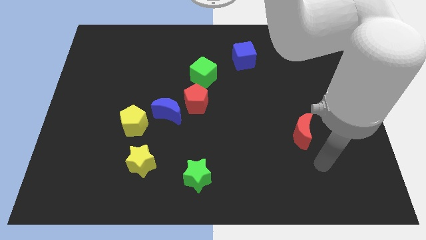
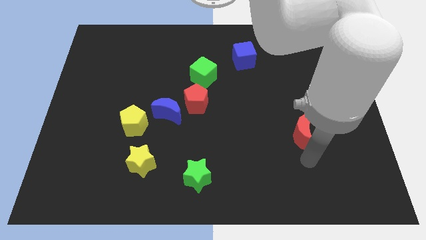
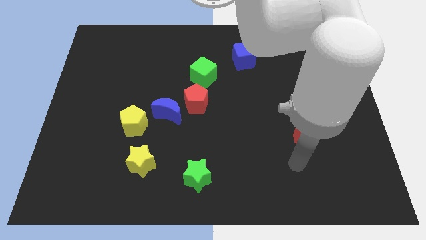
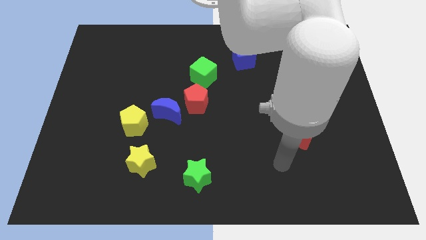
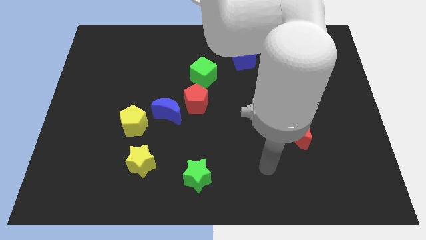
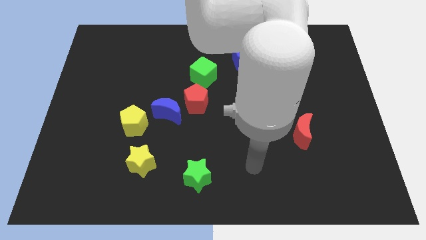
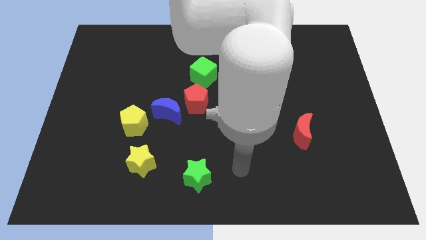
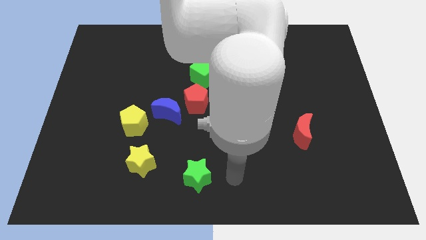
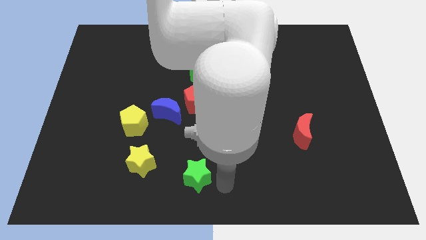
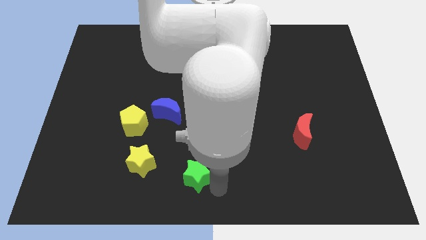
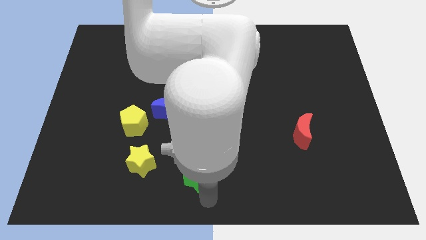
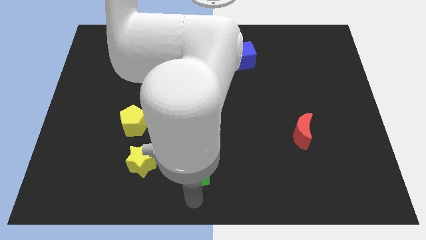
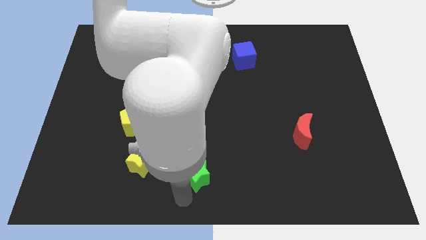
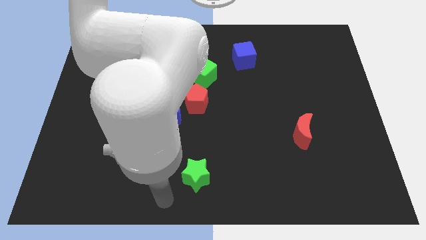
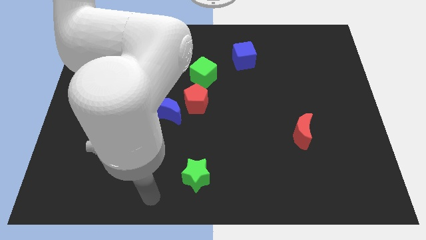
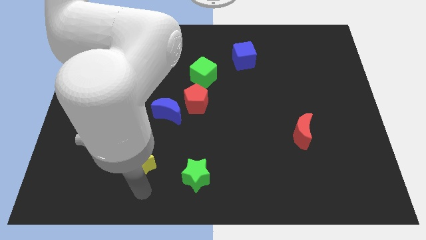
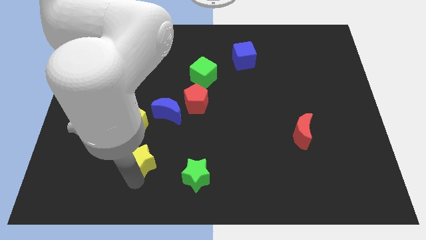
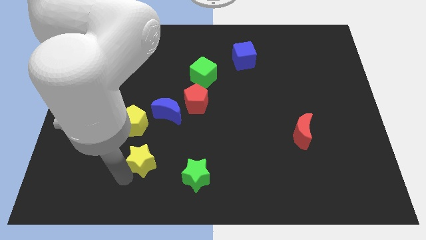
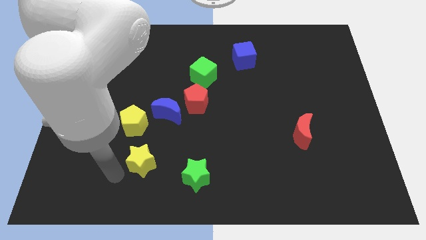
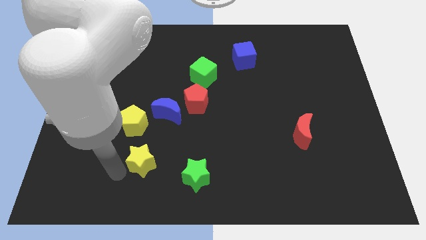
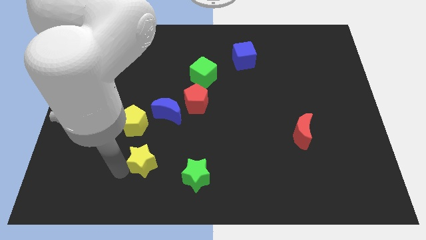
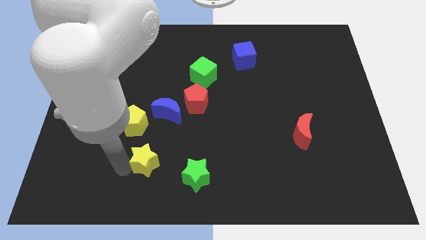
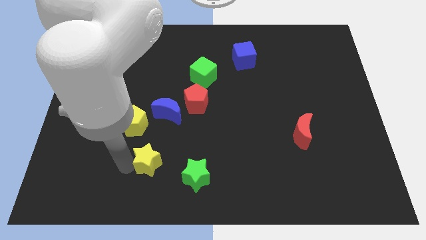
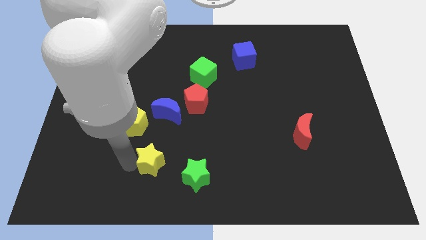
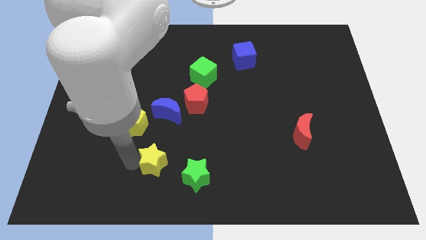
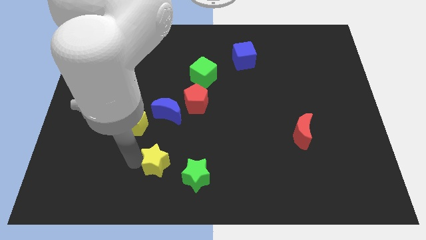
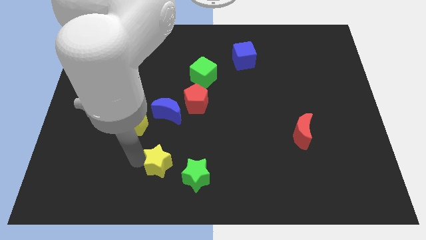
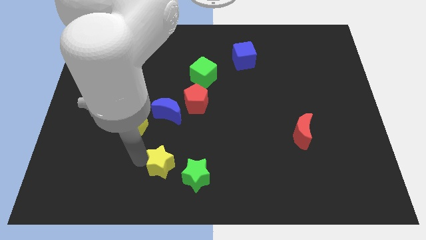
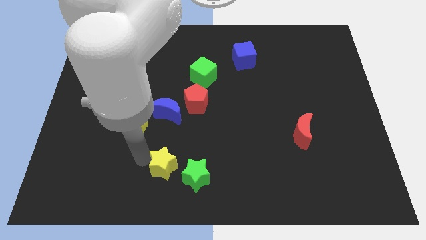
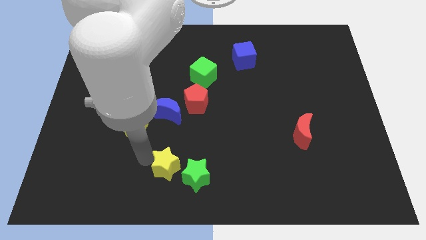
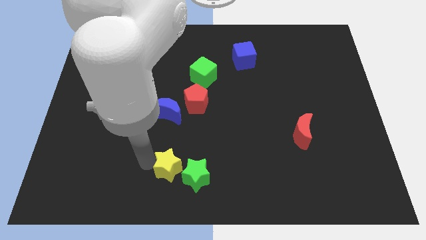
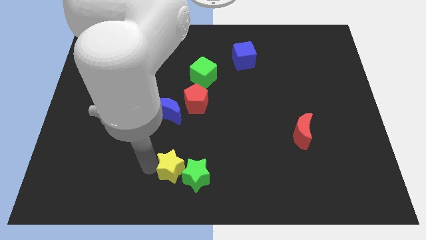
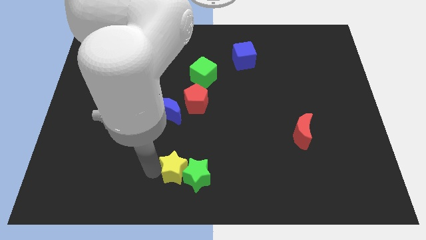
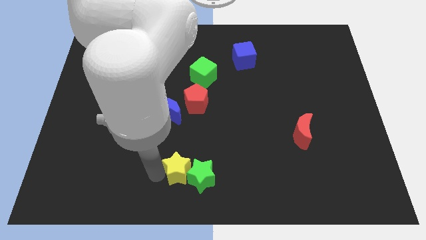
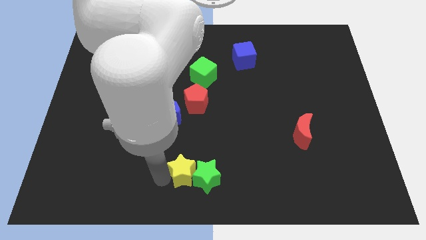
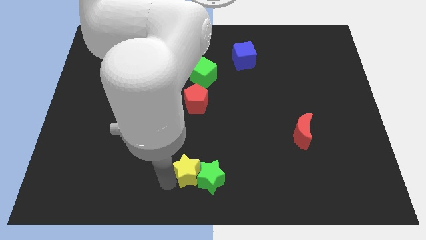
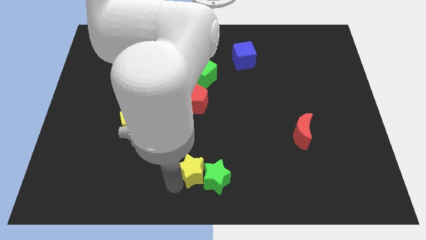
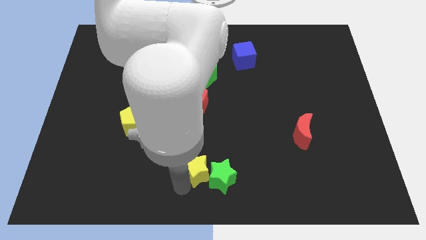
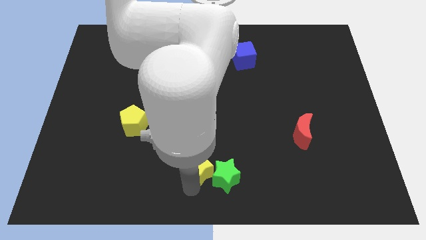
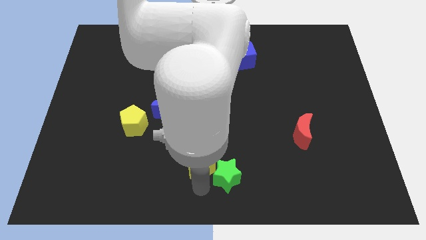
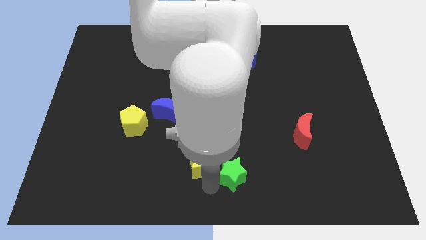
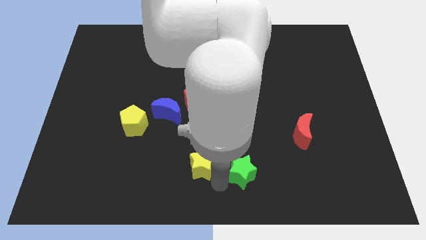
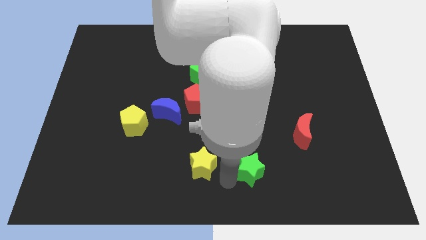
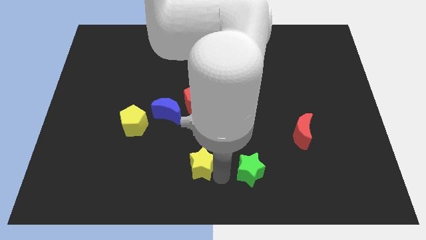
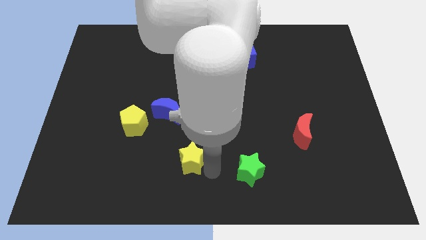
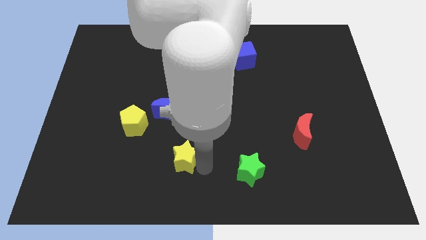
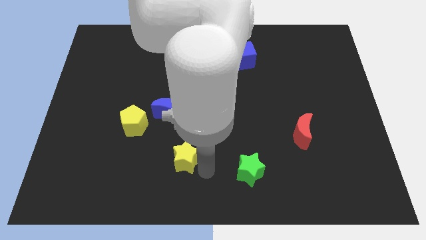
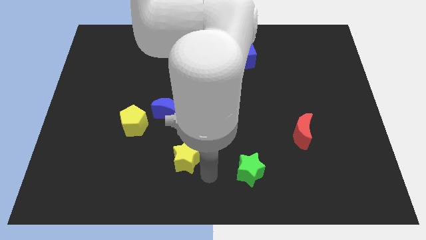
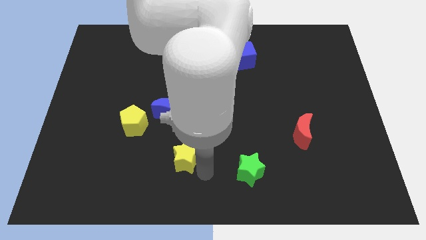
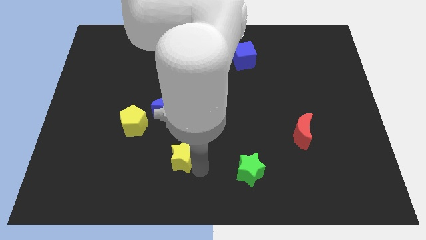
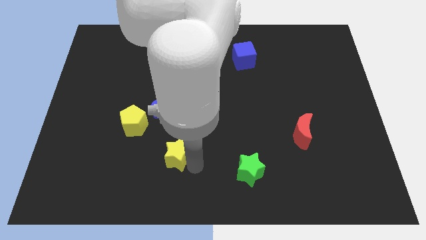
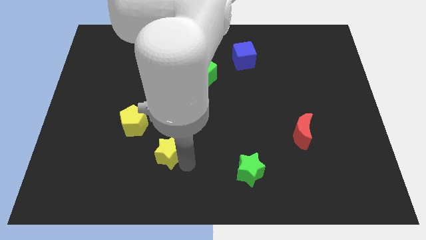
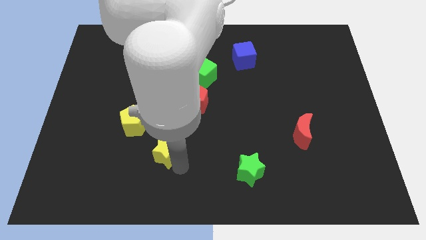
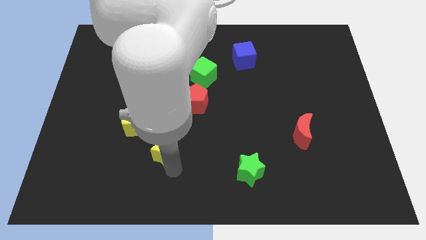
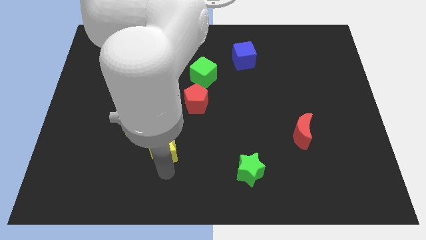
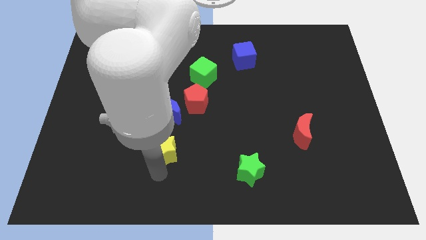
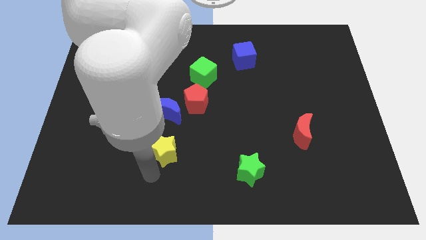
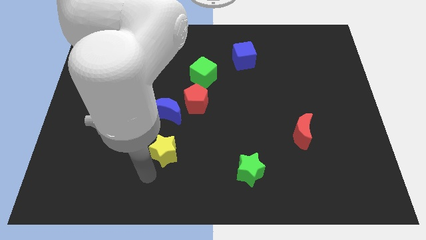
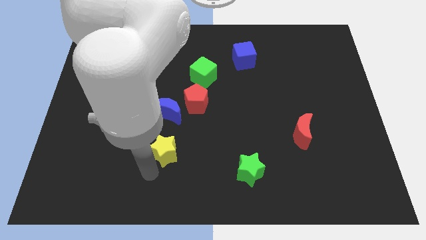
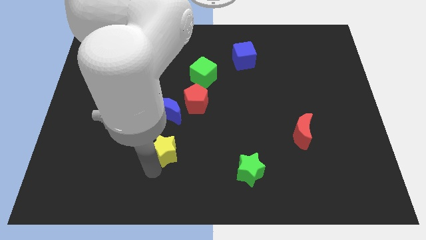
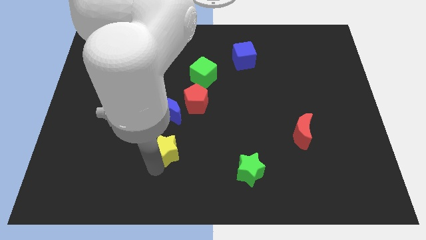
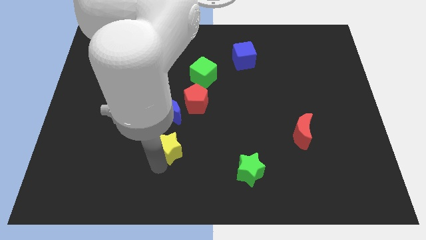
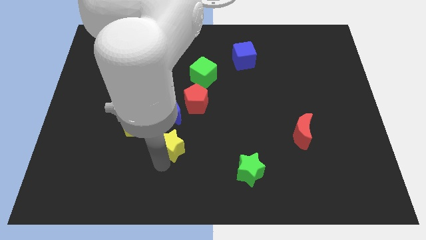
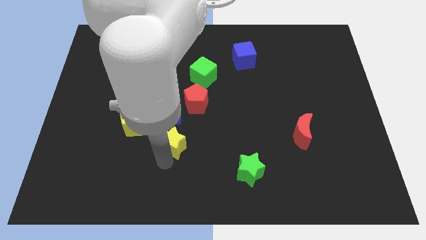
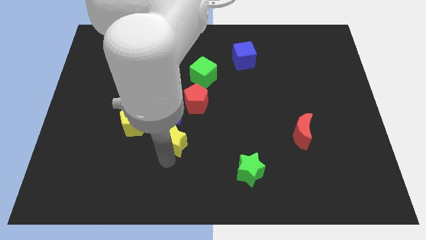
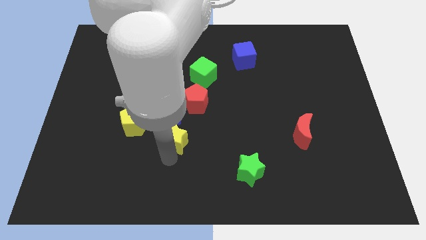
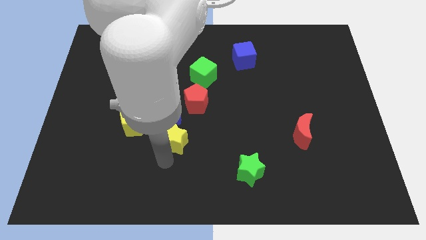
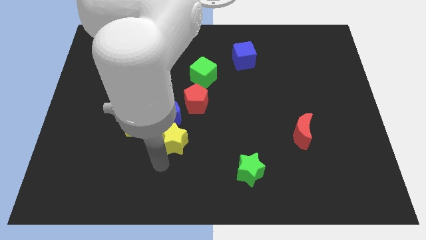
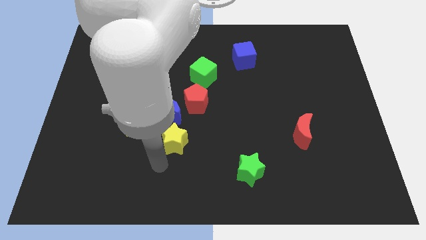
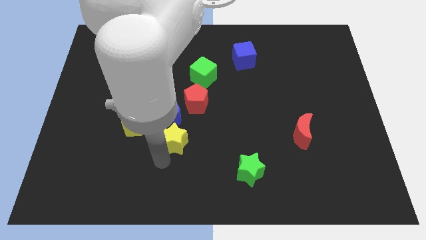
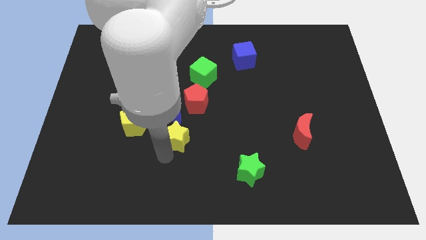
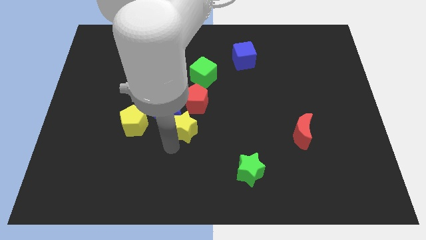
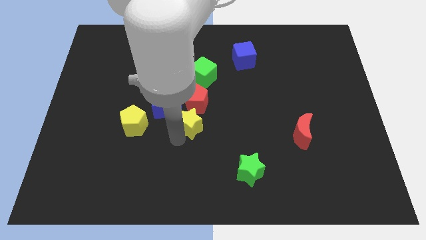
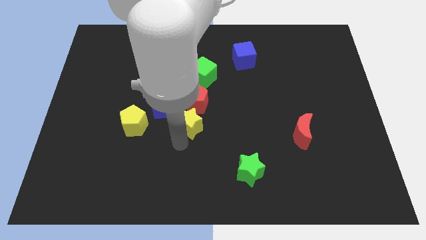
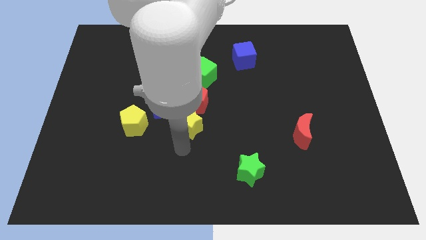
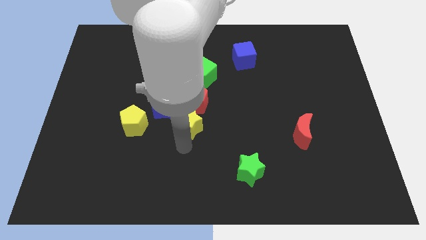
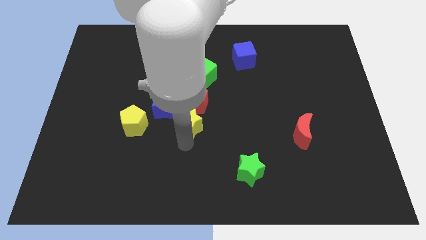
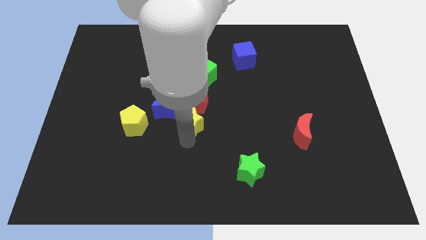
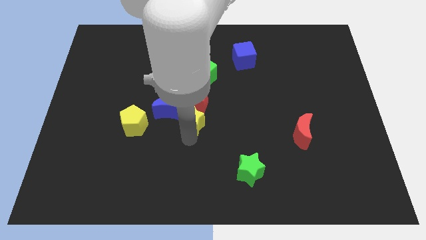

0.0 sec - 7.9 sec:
slide the yellow star to the red pentagon
